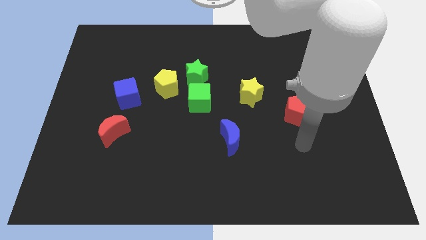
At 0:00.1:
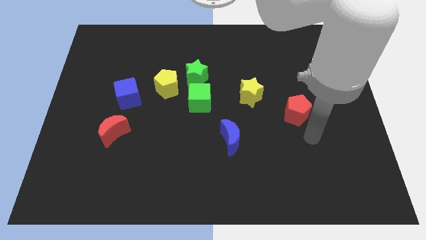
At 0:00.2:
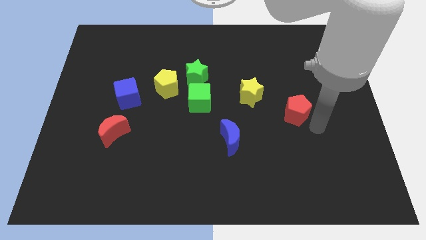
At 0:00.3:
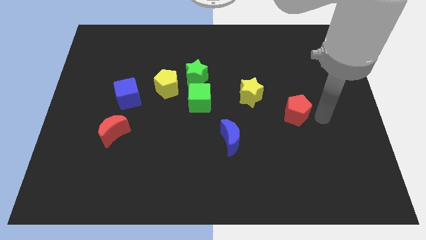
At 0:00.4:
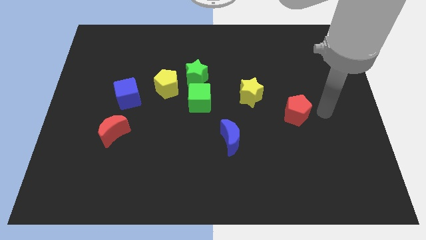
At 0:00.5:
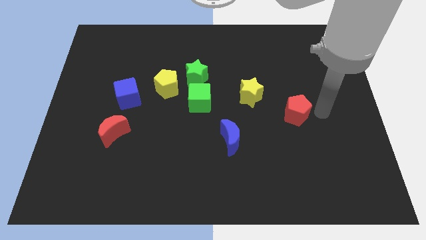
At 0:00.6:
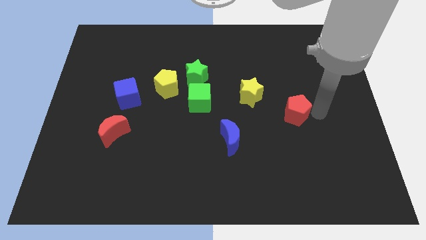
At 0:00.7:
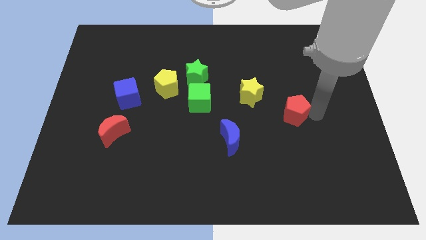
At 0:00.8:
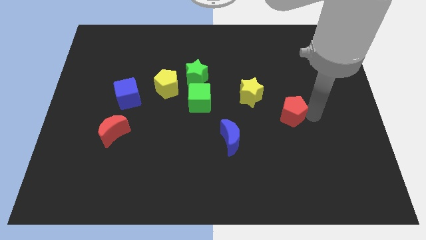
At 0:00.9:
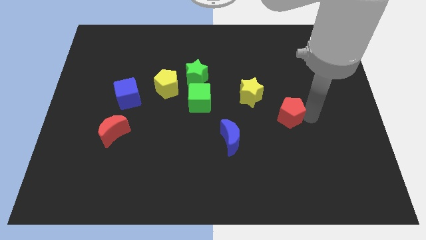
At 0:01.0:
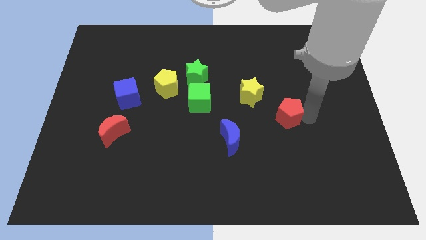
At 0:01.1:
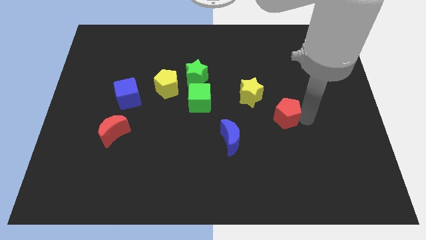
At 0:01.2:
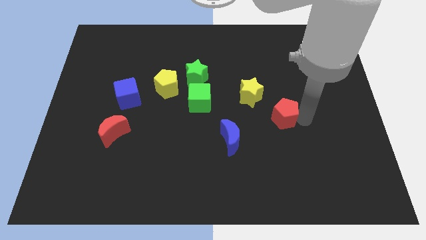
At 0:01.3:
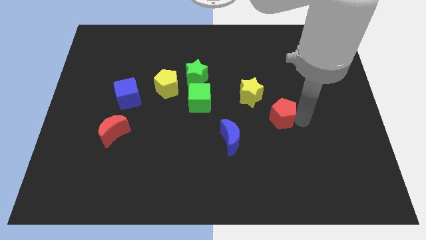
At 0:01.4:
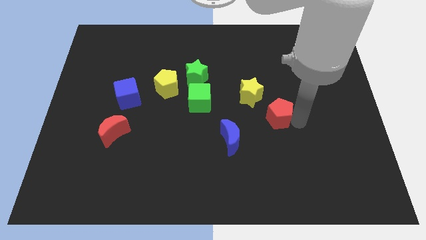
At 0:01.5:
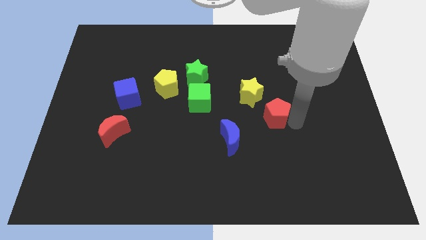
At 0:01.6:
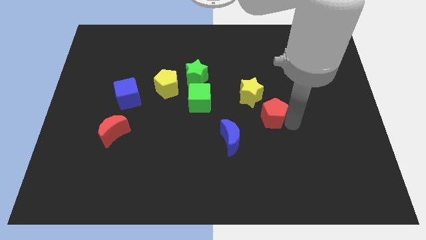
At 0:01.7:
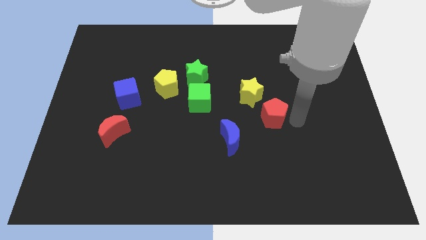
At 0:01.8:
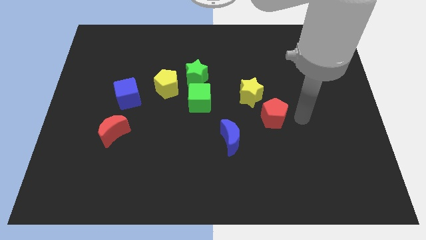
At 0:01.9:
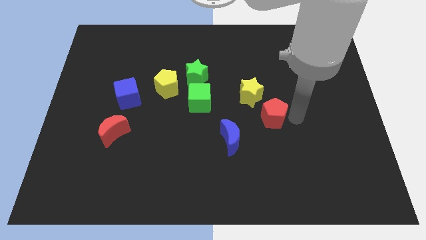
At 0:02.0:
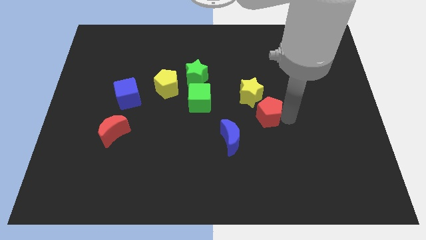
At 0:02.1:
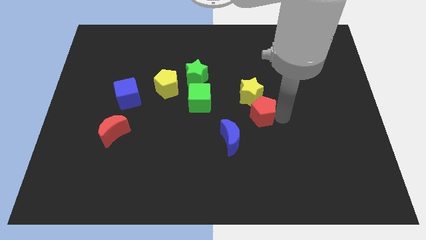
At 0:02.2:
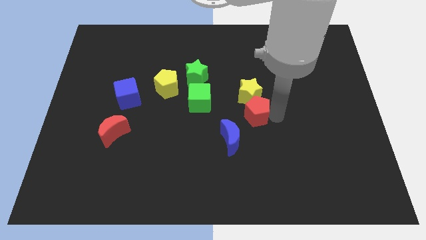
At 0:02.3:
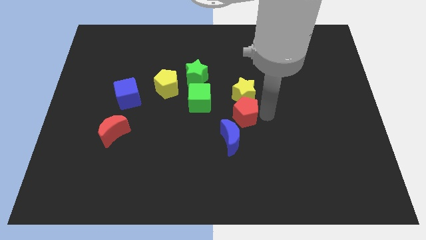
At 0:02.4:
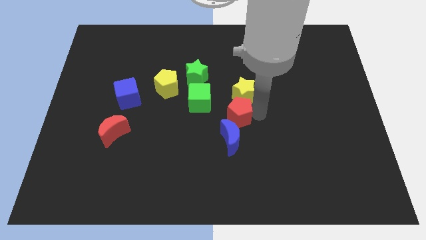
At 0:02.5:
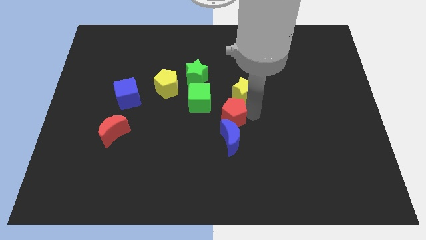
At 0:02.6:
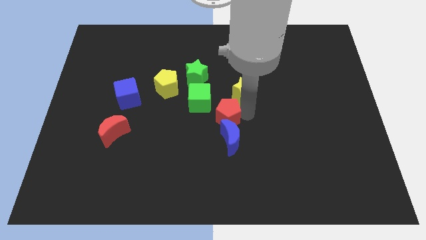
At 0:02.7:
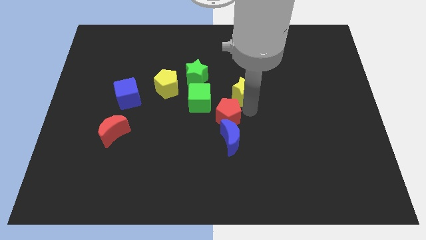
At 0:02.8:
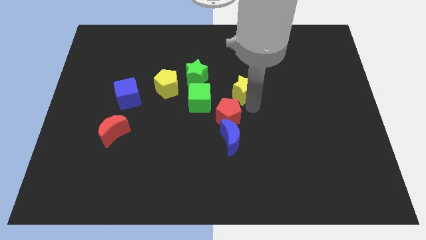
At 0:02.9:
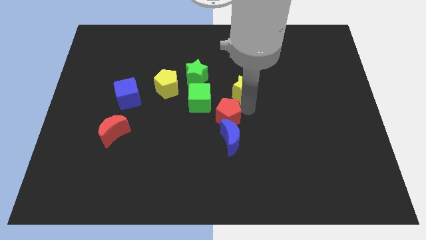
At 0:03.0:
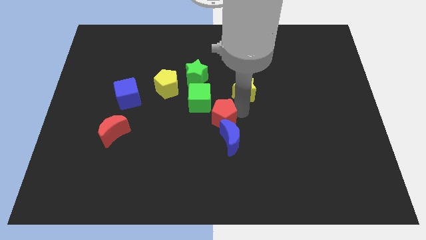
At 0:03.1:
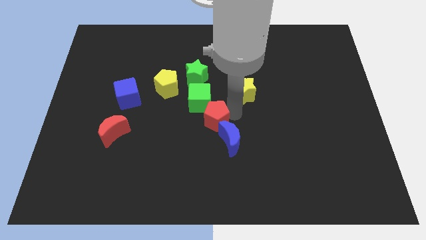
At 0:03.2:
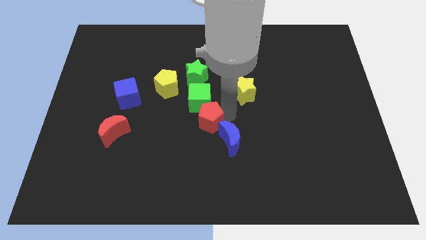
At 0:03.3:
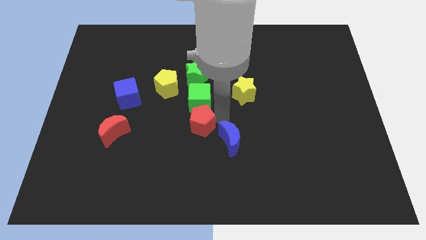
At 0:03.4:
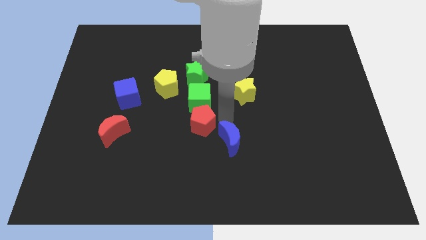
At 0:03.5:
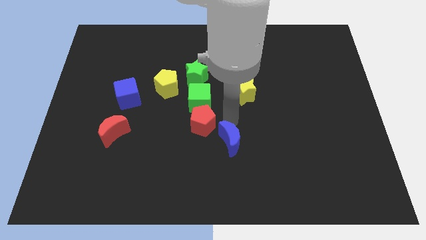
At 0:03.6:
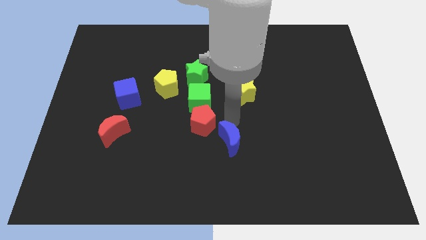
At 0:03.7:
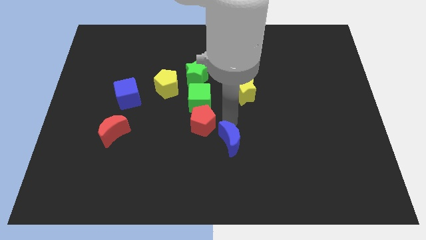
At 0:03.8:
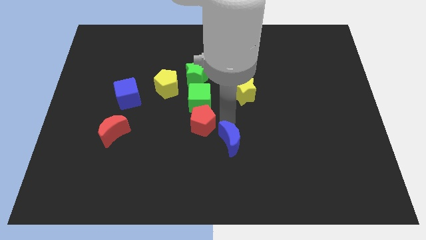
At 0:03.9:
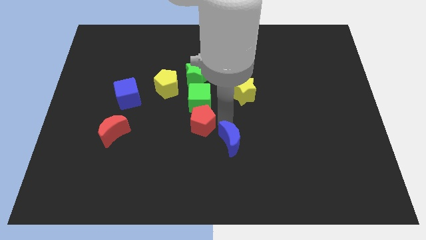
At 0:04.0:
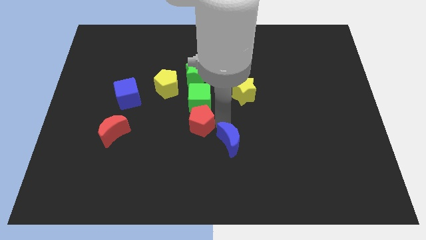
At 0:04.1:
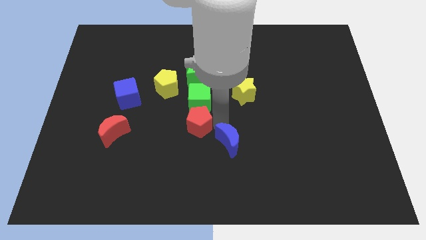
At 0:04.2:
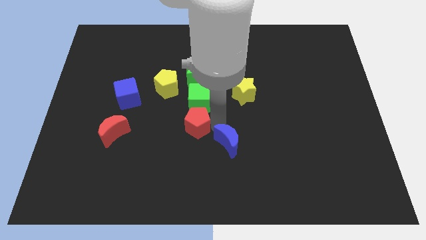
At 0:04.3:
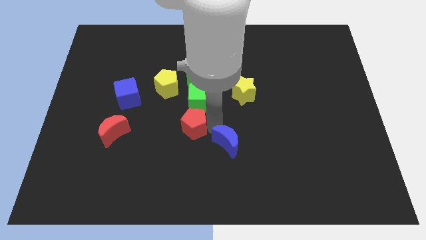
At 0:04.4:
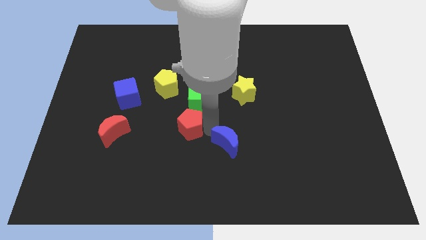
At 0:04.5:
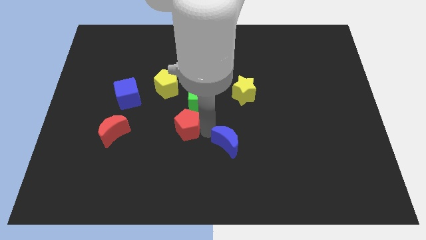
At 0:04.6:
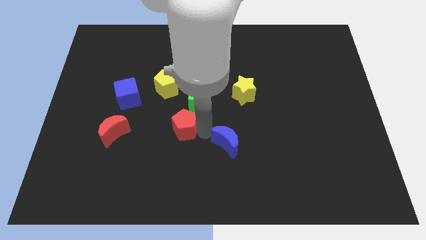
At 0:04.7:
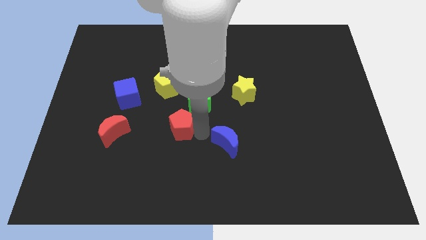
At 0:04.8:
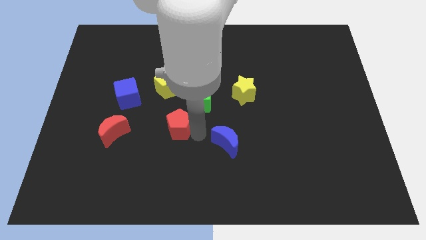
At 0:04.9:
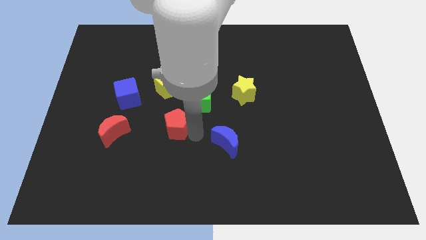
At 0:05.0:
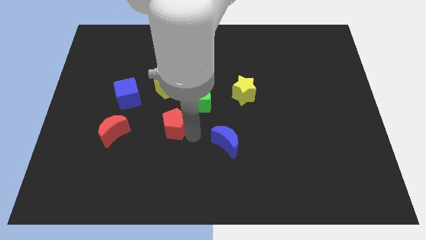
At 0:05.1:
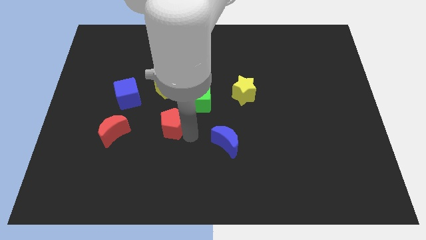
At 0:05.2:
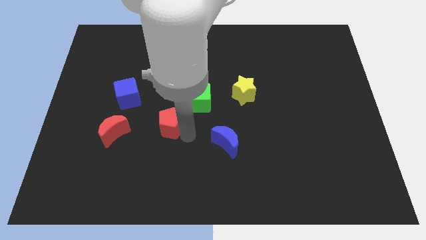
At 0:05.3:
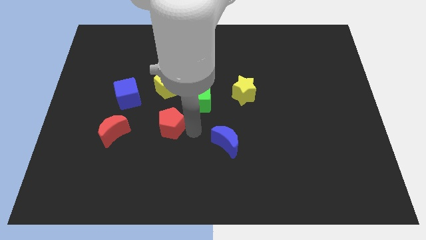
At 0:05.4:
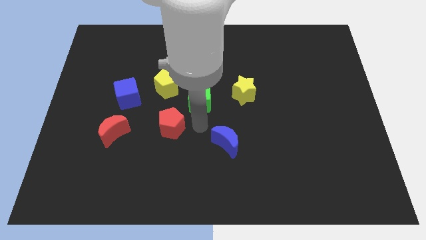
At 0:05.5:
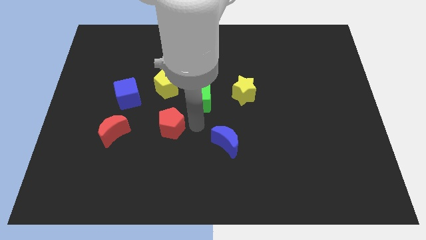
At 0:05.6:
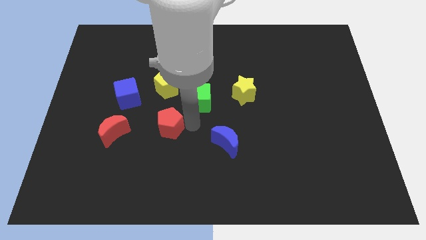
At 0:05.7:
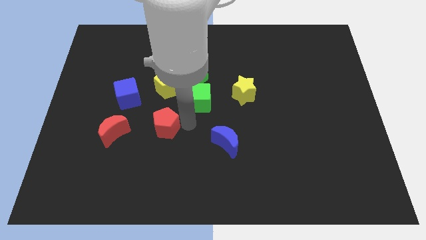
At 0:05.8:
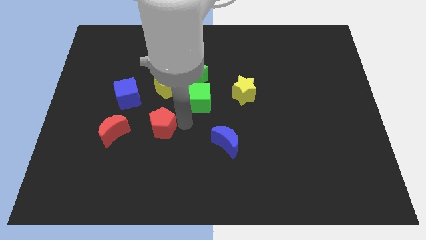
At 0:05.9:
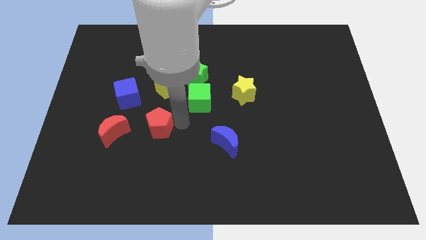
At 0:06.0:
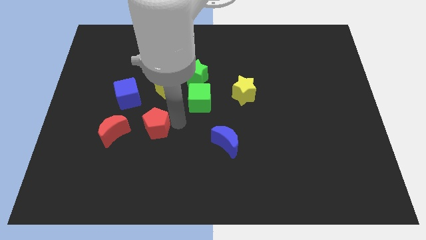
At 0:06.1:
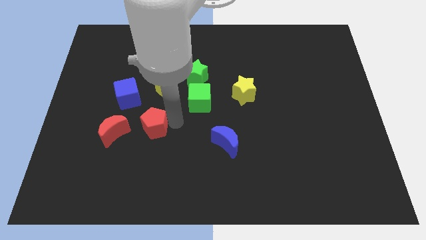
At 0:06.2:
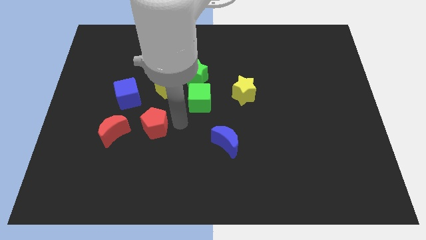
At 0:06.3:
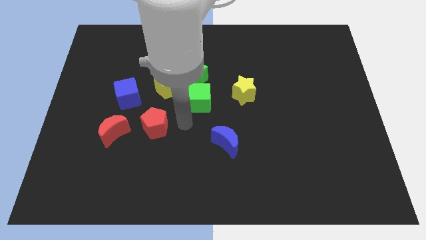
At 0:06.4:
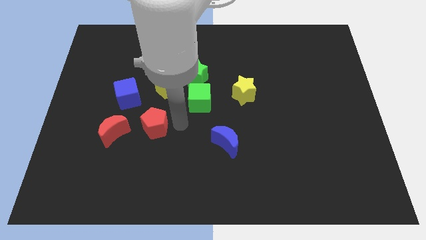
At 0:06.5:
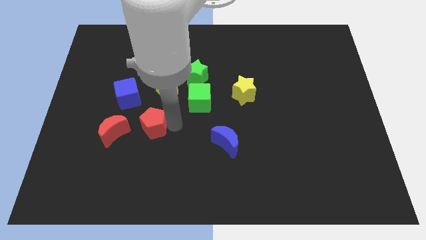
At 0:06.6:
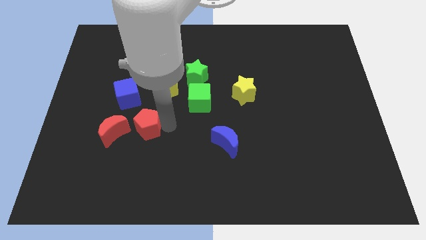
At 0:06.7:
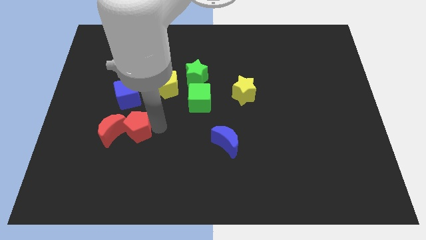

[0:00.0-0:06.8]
slide the red pentagon close to the red moon

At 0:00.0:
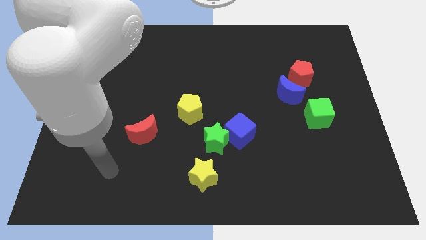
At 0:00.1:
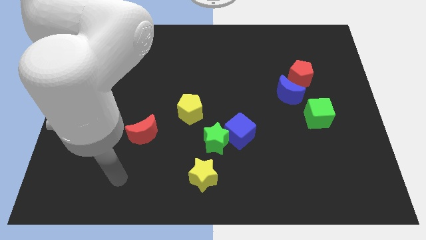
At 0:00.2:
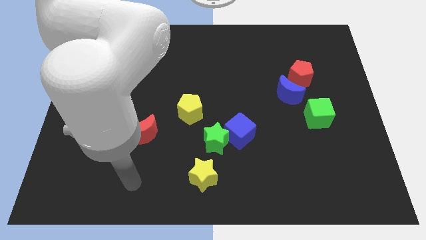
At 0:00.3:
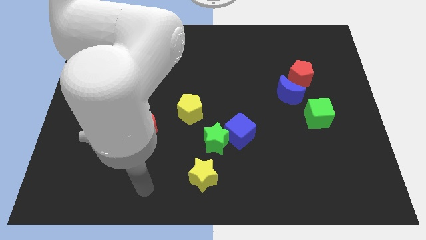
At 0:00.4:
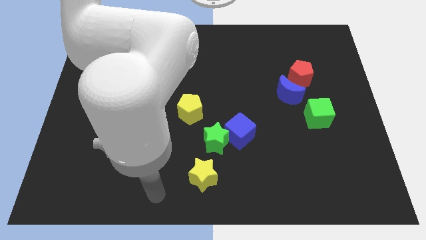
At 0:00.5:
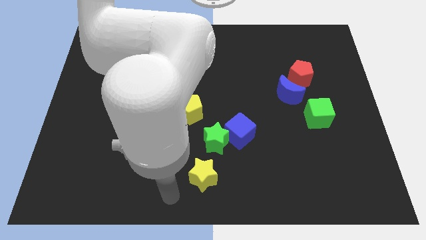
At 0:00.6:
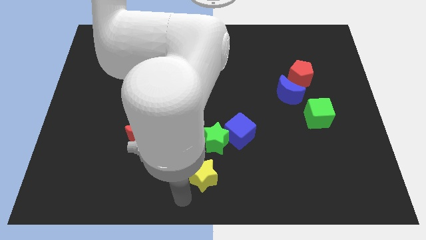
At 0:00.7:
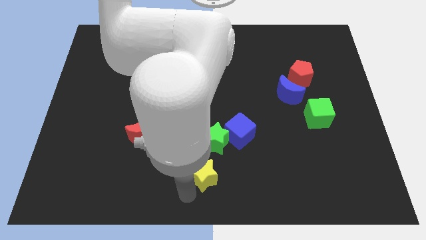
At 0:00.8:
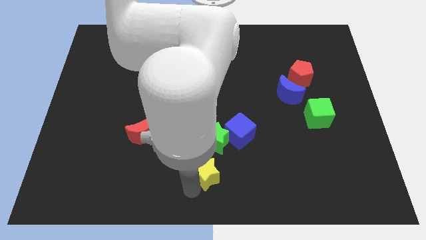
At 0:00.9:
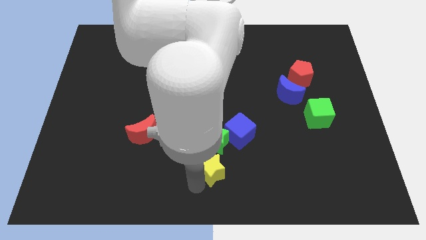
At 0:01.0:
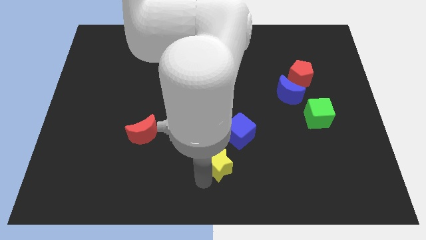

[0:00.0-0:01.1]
put the yellow star next to the green star
